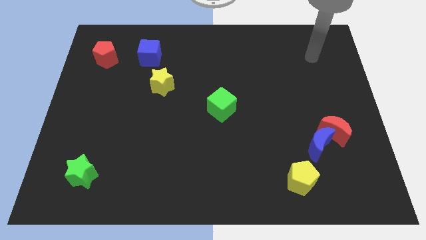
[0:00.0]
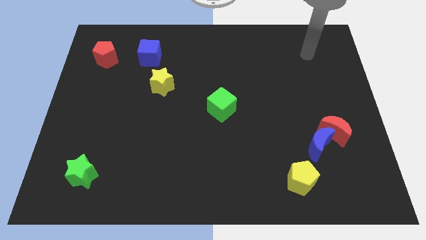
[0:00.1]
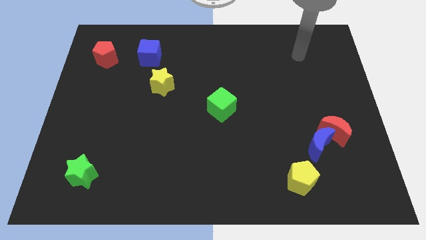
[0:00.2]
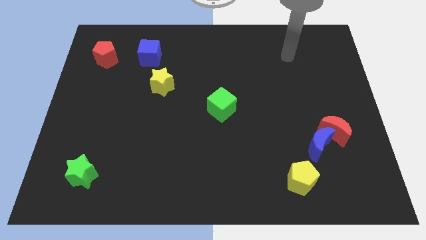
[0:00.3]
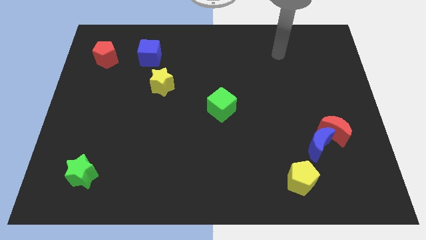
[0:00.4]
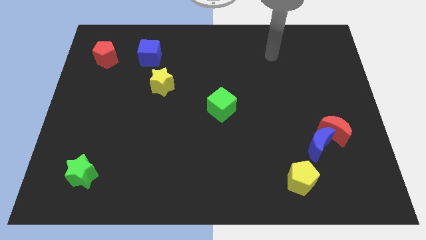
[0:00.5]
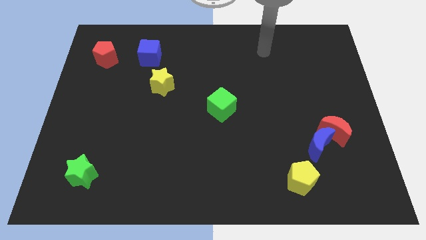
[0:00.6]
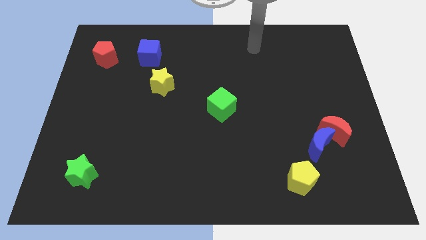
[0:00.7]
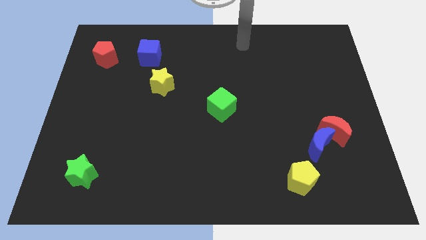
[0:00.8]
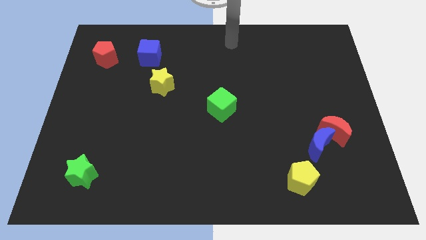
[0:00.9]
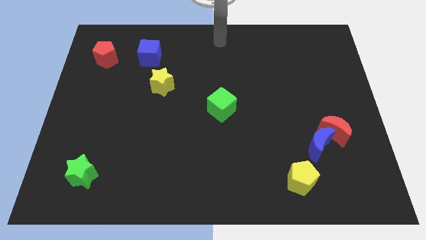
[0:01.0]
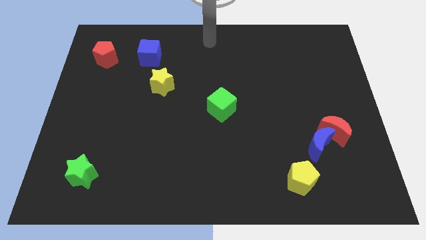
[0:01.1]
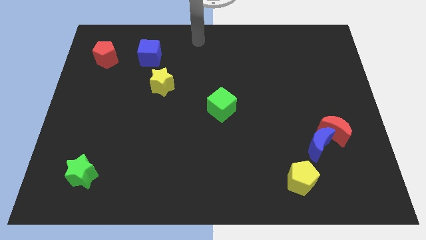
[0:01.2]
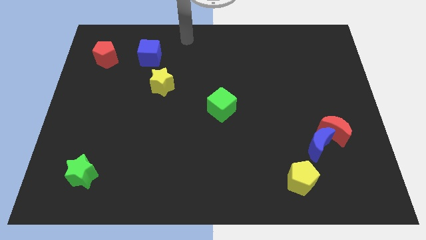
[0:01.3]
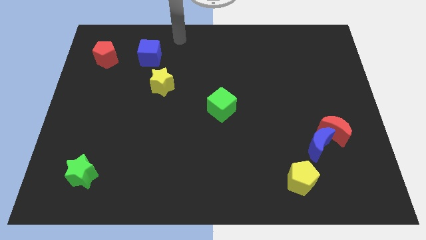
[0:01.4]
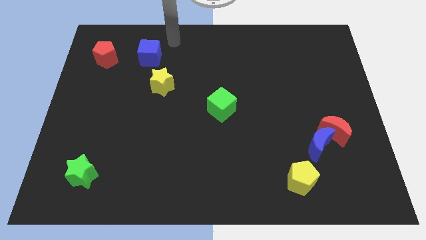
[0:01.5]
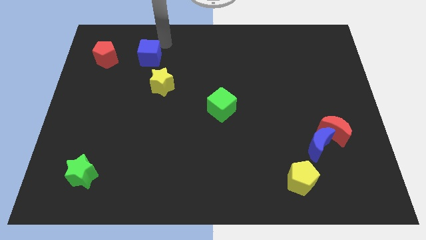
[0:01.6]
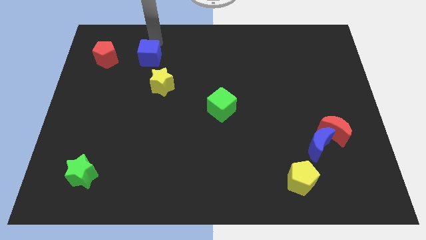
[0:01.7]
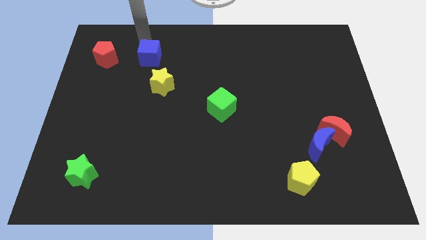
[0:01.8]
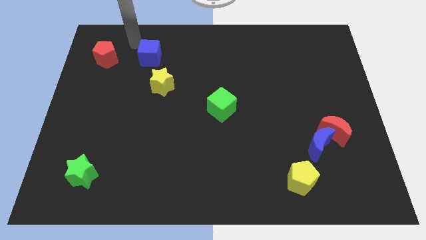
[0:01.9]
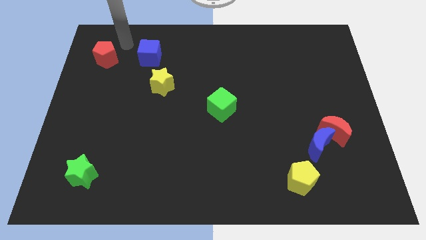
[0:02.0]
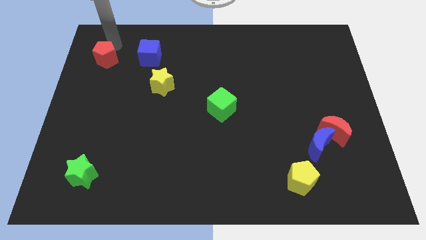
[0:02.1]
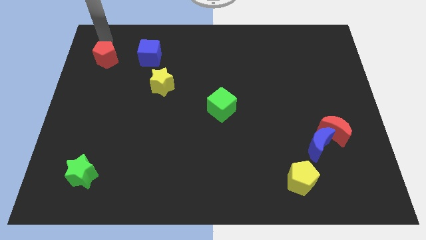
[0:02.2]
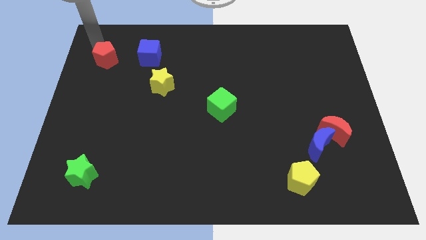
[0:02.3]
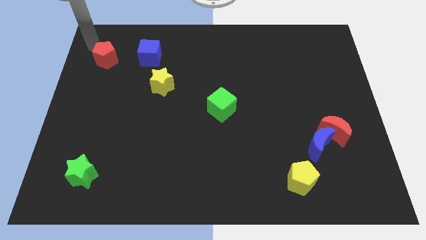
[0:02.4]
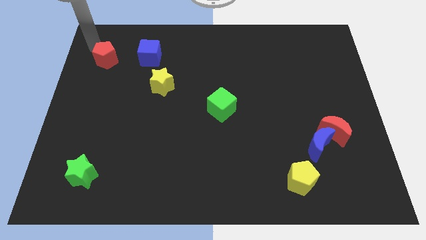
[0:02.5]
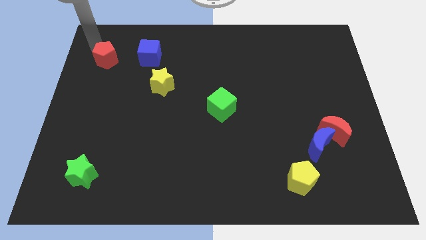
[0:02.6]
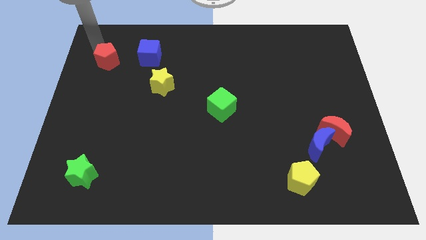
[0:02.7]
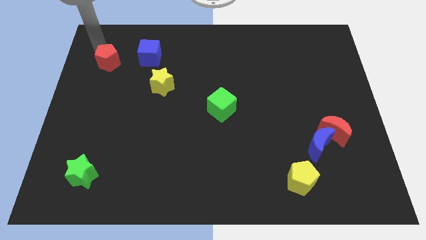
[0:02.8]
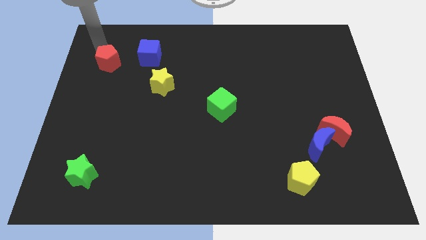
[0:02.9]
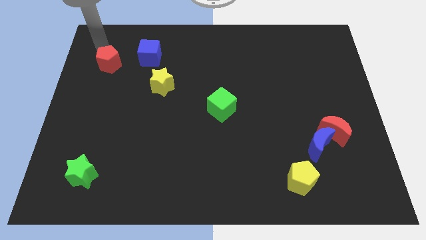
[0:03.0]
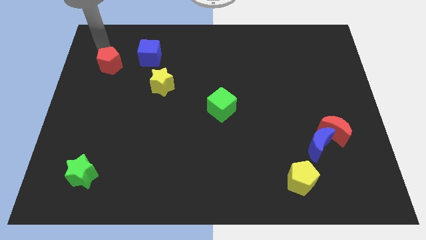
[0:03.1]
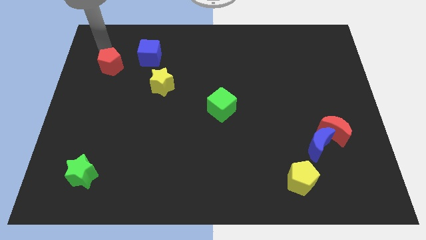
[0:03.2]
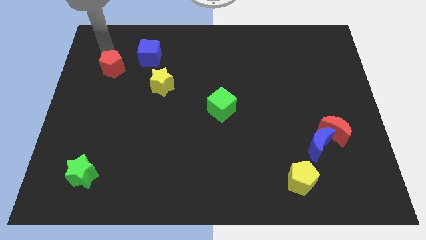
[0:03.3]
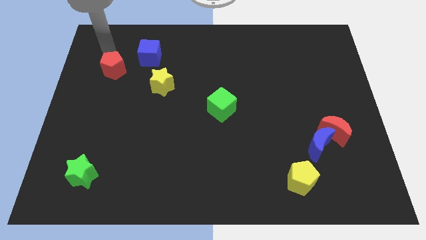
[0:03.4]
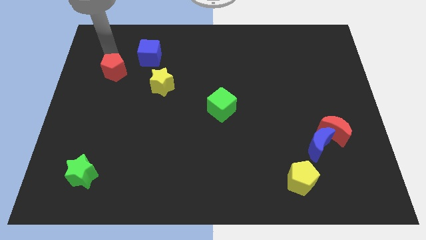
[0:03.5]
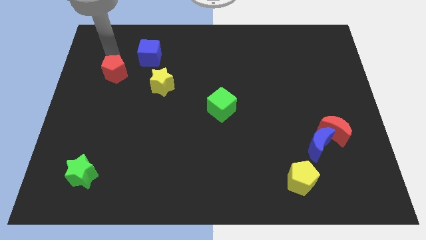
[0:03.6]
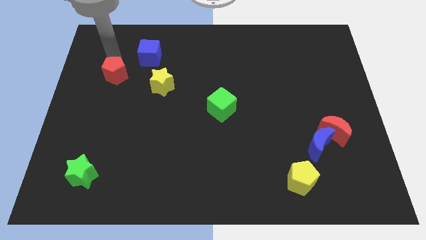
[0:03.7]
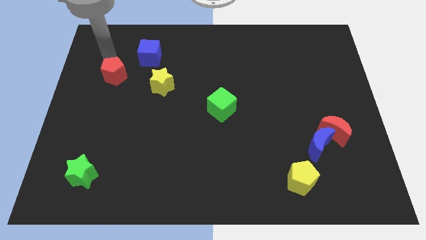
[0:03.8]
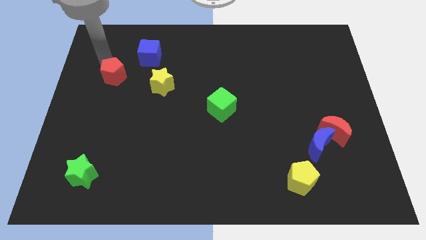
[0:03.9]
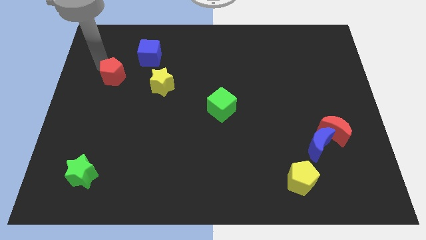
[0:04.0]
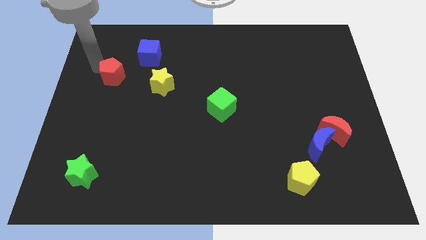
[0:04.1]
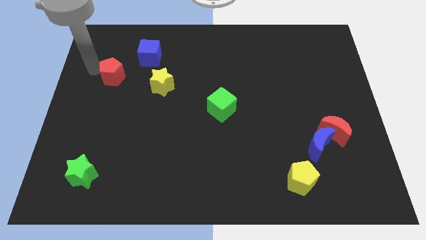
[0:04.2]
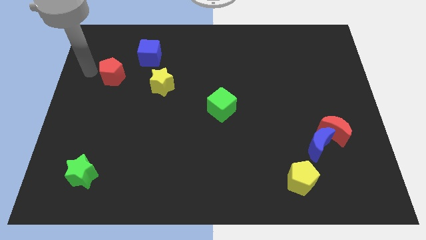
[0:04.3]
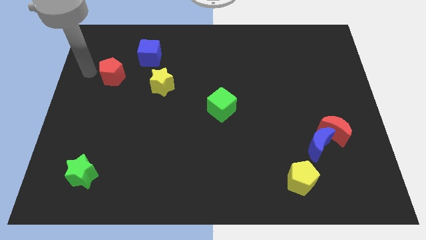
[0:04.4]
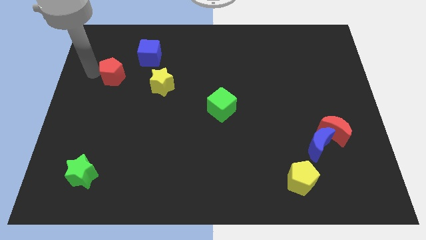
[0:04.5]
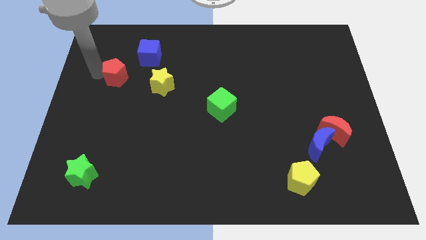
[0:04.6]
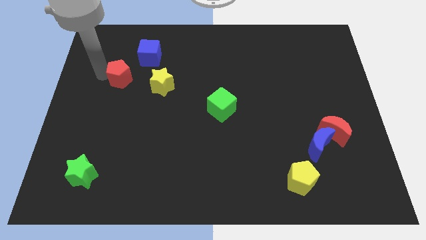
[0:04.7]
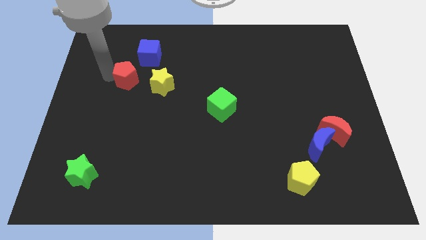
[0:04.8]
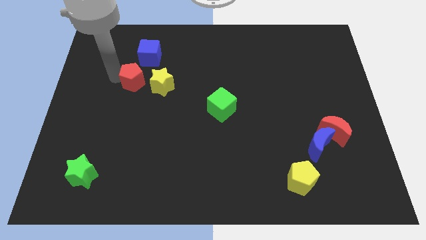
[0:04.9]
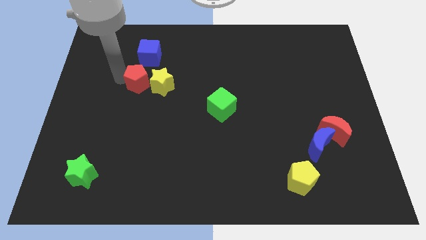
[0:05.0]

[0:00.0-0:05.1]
put the red pentagon next to the yellow star

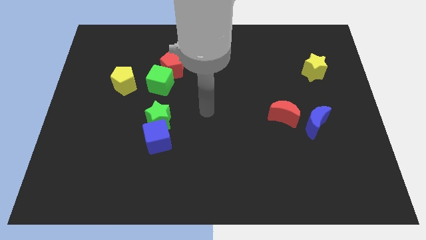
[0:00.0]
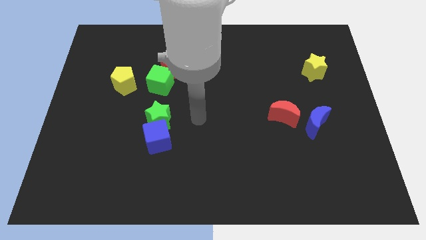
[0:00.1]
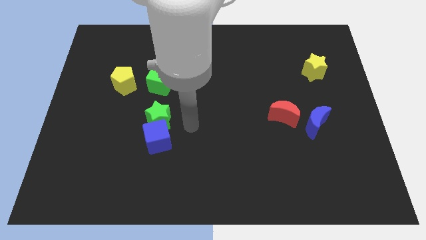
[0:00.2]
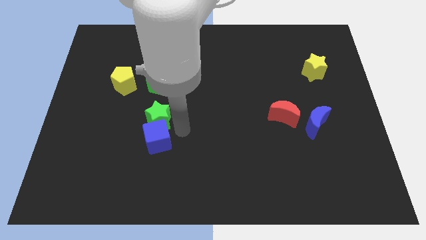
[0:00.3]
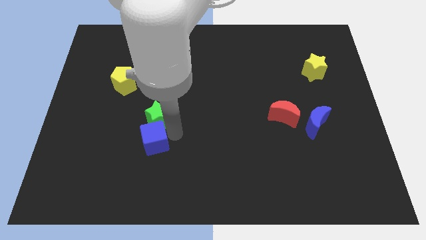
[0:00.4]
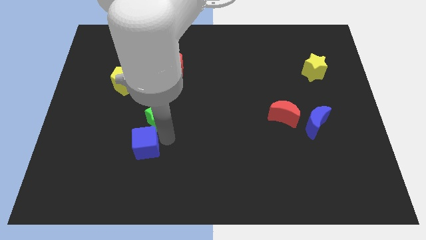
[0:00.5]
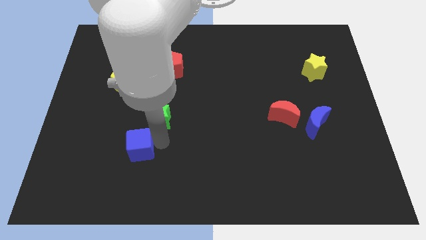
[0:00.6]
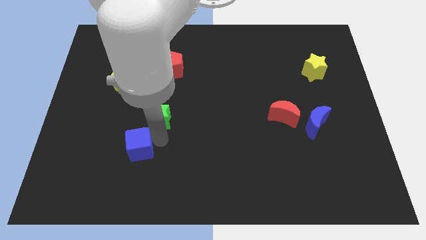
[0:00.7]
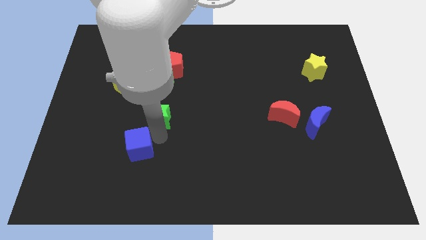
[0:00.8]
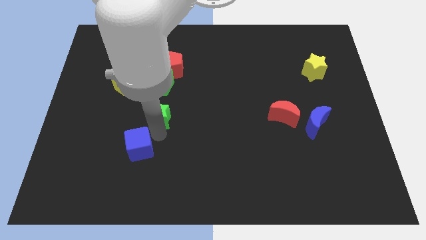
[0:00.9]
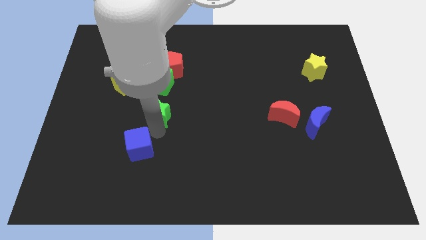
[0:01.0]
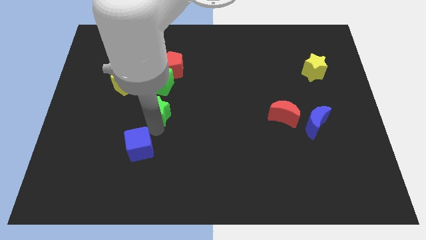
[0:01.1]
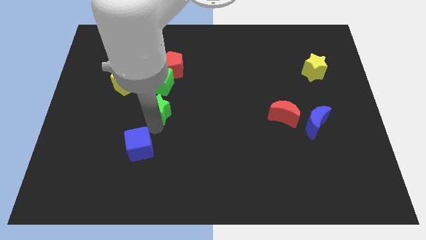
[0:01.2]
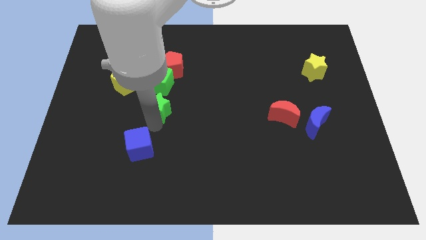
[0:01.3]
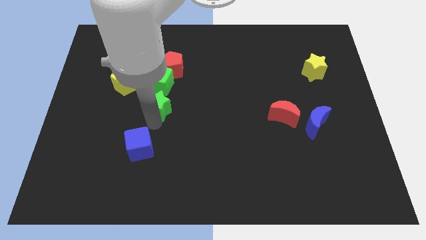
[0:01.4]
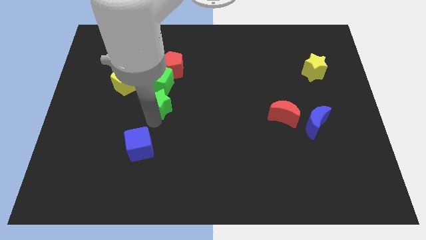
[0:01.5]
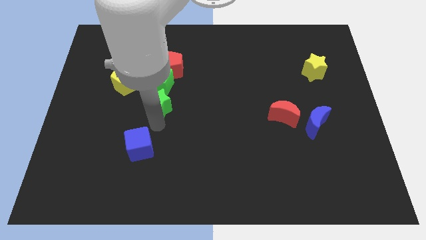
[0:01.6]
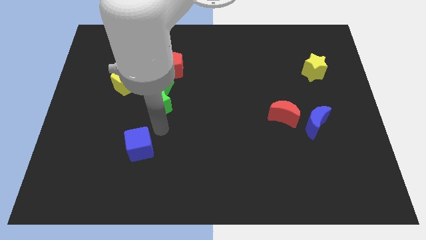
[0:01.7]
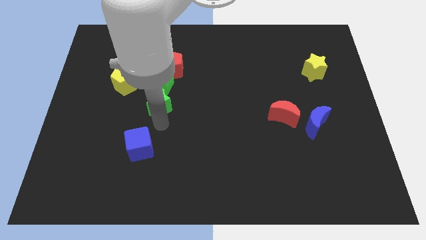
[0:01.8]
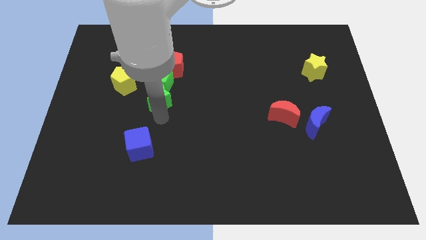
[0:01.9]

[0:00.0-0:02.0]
push the green star to the green cube

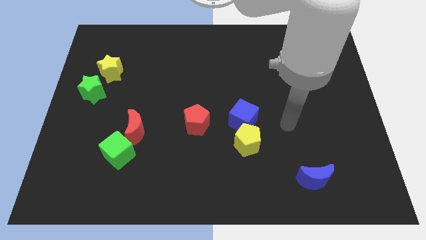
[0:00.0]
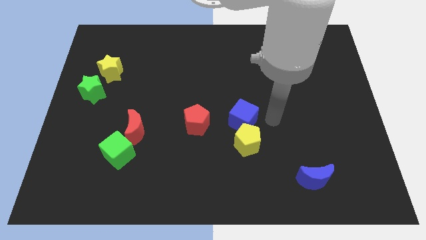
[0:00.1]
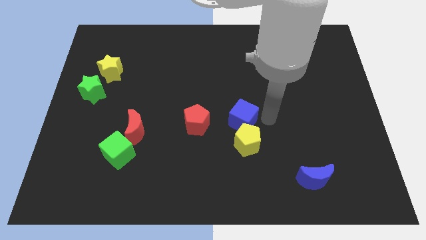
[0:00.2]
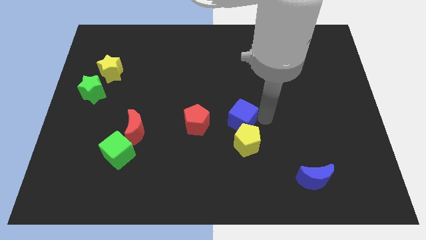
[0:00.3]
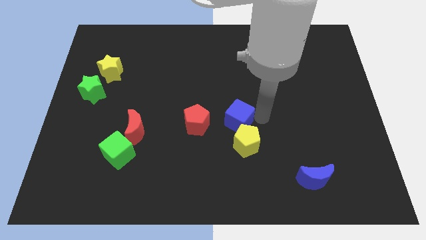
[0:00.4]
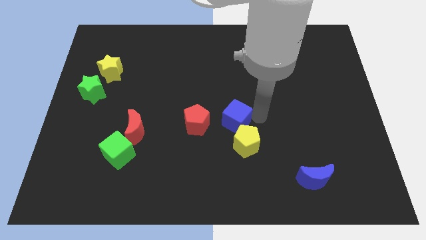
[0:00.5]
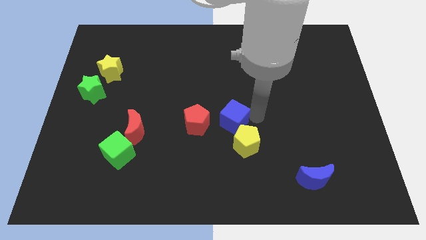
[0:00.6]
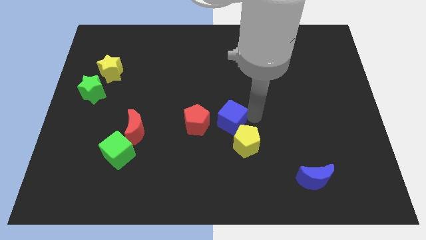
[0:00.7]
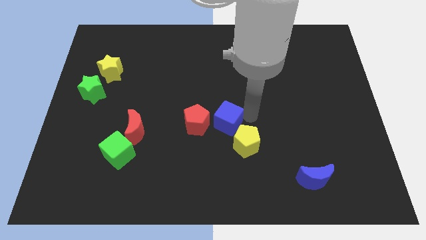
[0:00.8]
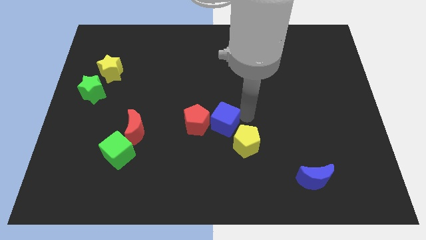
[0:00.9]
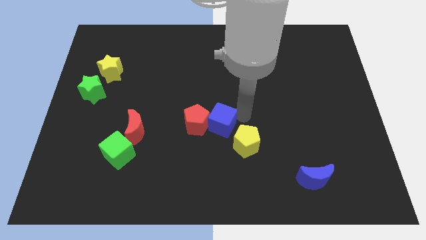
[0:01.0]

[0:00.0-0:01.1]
move the blue cube next to the red pentagon
